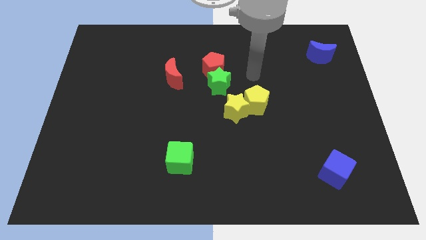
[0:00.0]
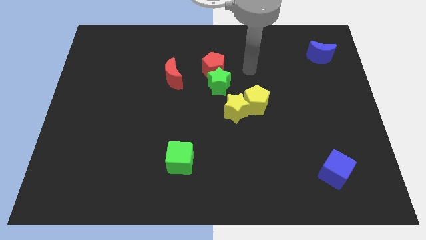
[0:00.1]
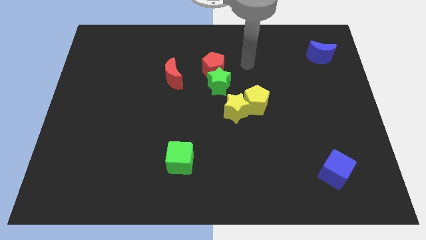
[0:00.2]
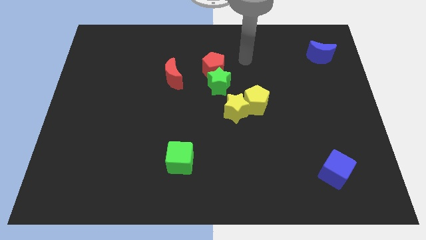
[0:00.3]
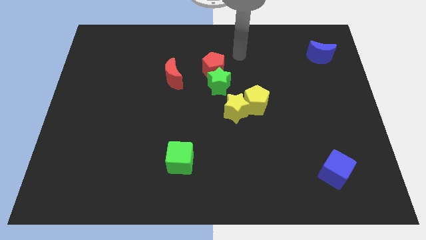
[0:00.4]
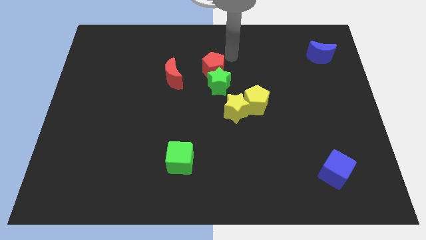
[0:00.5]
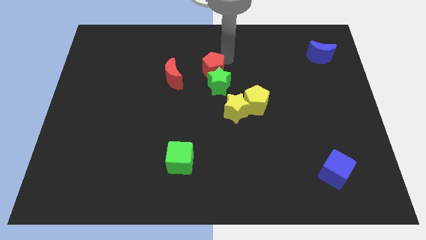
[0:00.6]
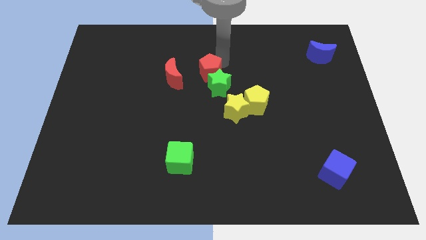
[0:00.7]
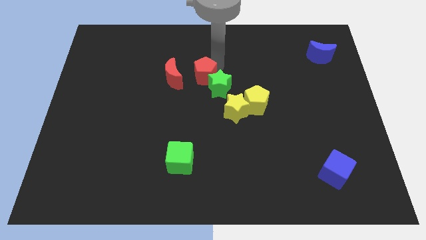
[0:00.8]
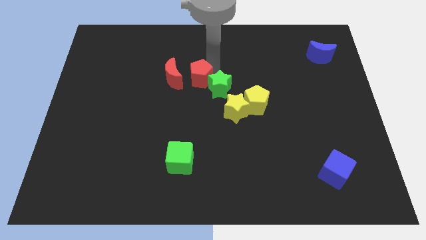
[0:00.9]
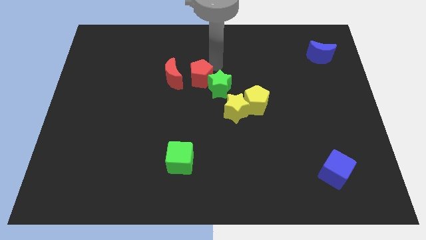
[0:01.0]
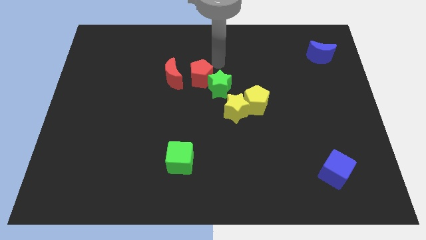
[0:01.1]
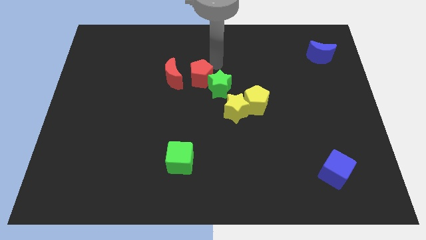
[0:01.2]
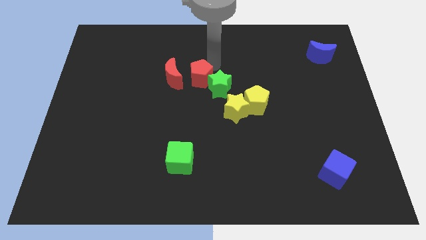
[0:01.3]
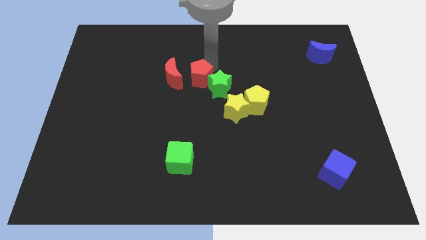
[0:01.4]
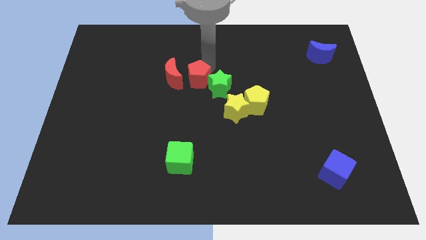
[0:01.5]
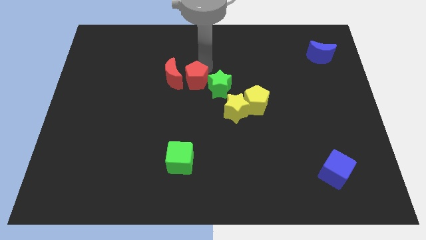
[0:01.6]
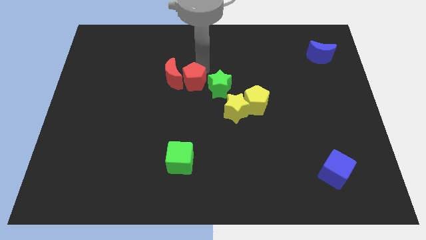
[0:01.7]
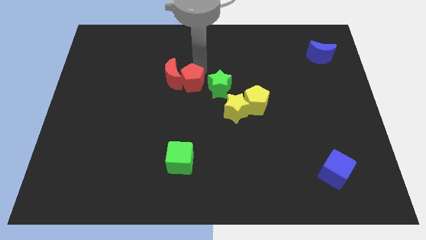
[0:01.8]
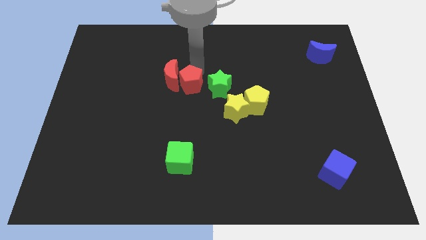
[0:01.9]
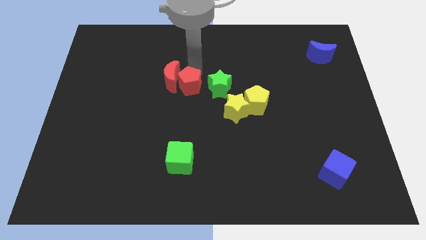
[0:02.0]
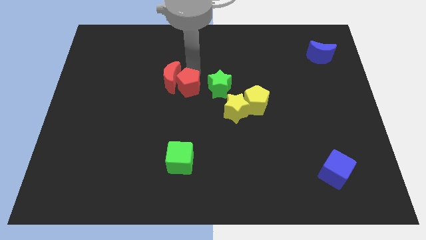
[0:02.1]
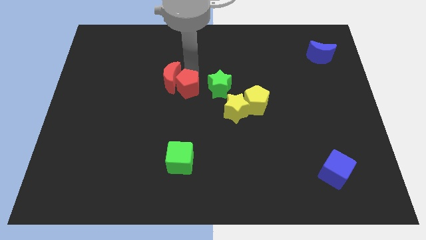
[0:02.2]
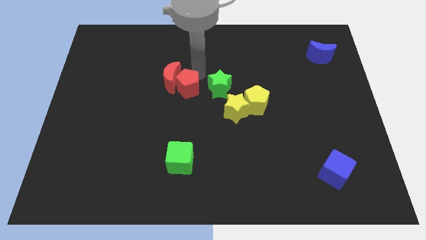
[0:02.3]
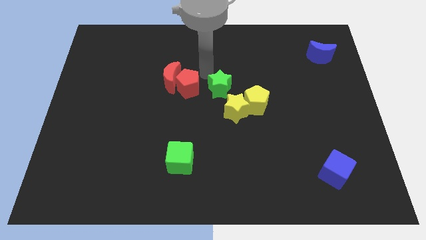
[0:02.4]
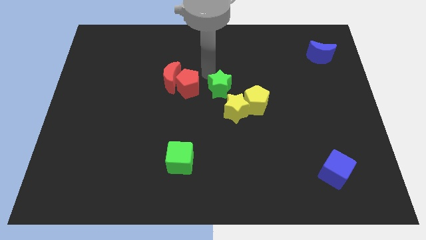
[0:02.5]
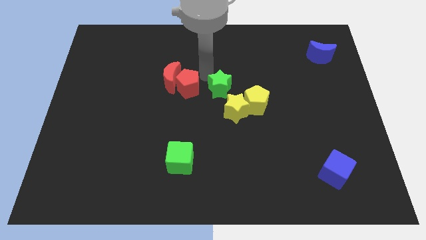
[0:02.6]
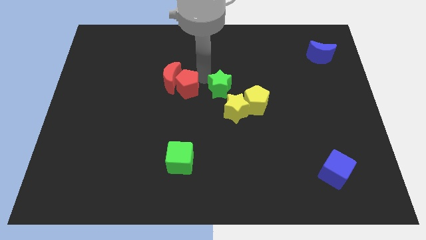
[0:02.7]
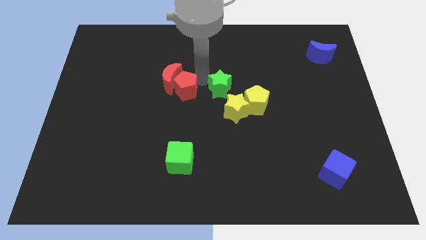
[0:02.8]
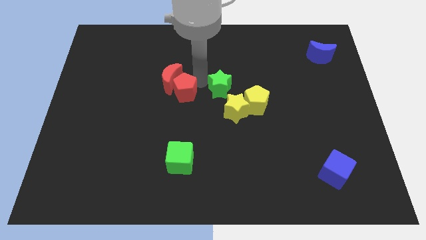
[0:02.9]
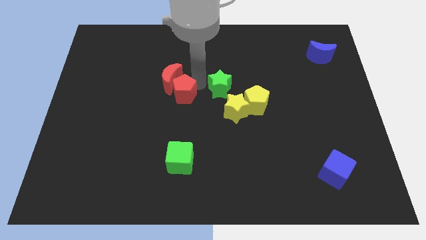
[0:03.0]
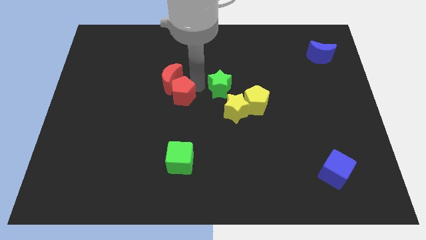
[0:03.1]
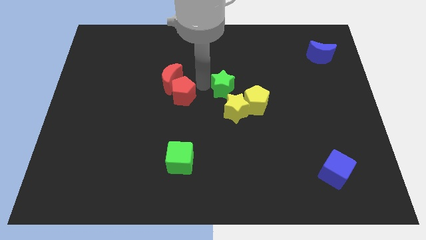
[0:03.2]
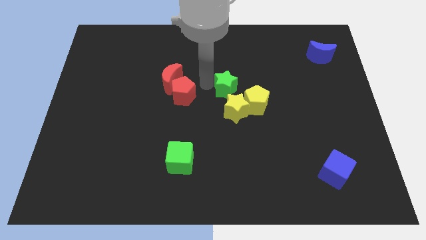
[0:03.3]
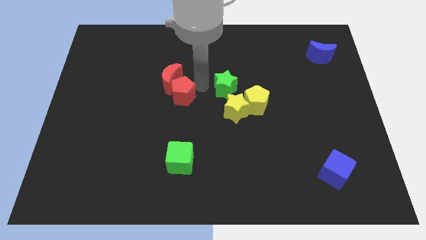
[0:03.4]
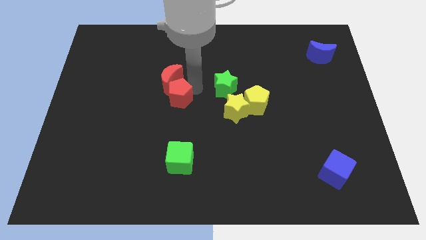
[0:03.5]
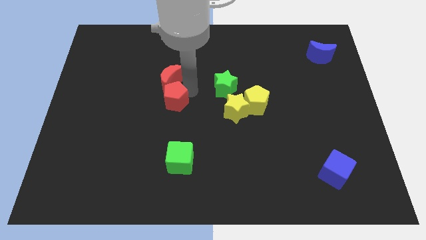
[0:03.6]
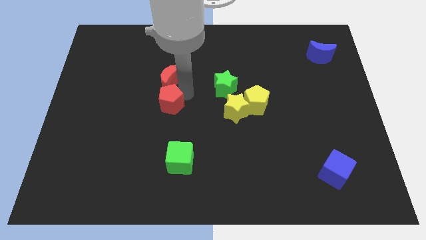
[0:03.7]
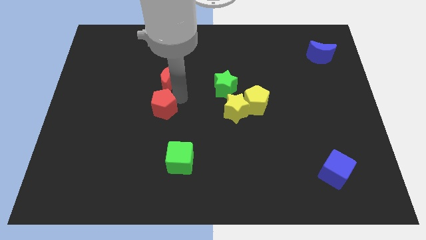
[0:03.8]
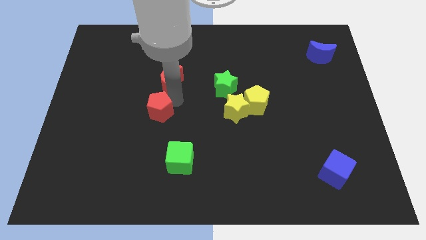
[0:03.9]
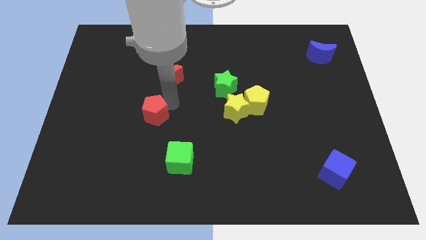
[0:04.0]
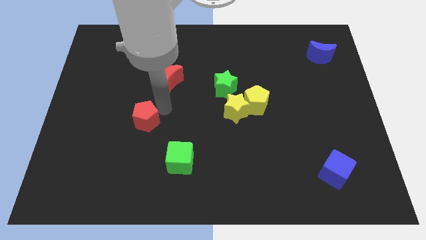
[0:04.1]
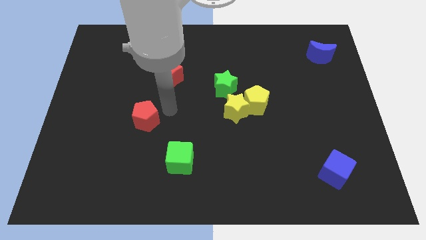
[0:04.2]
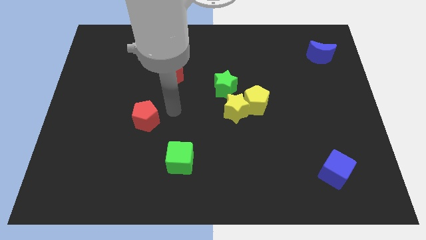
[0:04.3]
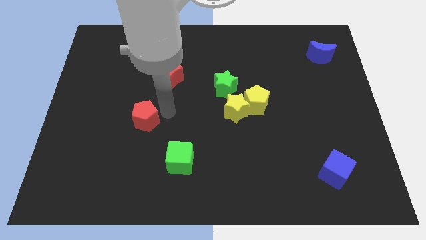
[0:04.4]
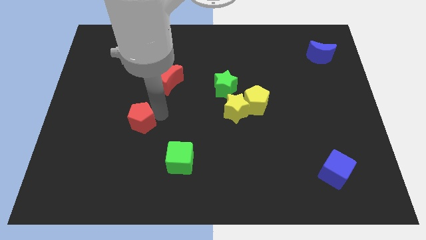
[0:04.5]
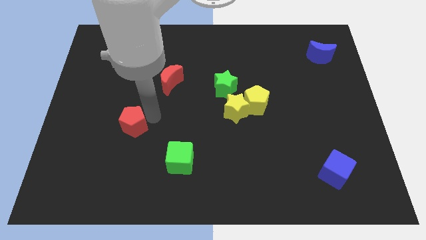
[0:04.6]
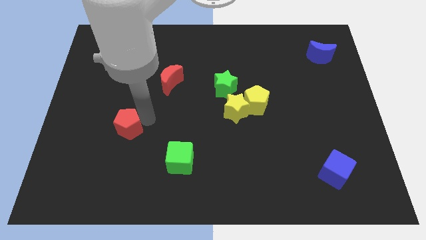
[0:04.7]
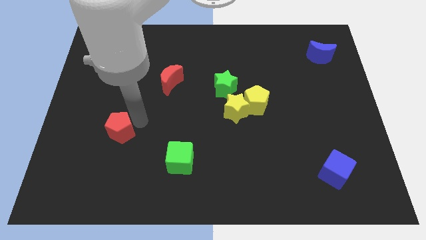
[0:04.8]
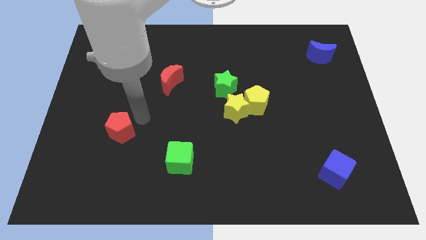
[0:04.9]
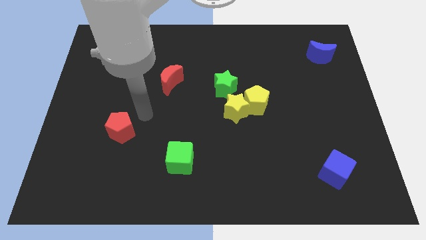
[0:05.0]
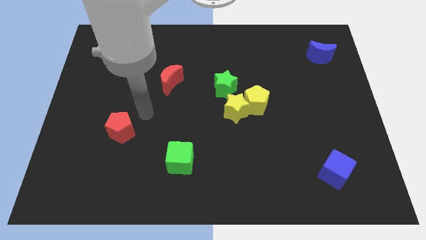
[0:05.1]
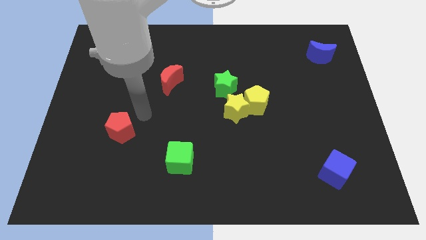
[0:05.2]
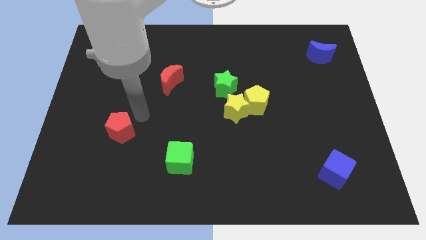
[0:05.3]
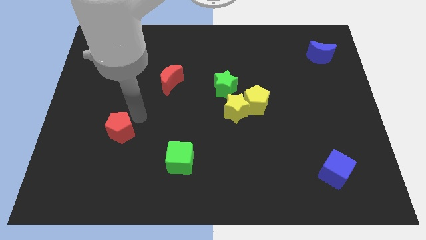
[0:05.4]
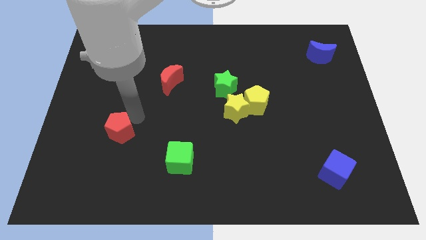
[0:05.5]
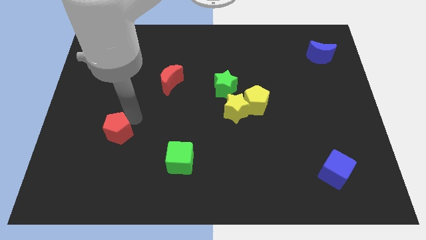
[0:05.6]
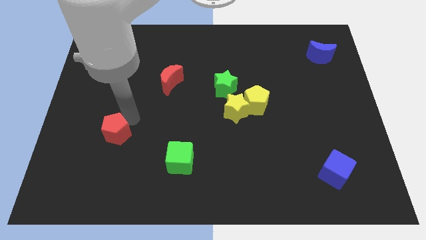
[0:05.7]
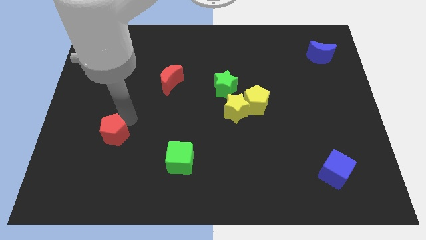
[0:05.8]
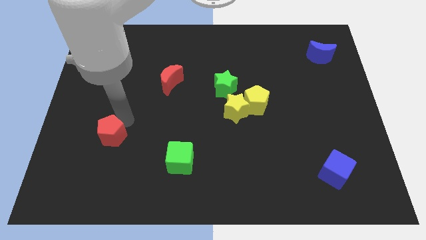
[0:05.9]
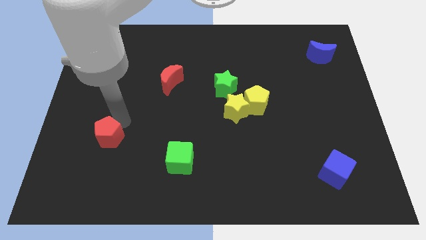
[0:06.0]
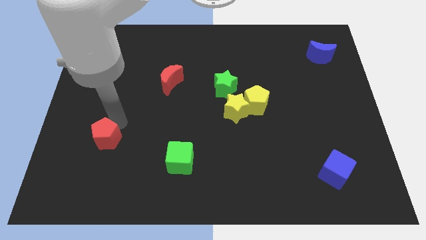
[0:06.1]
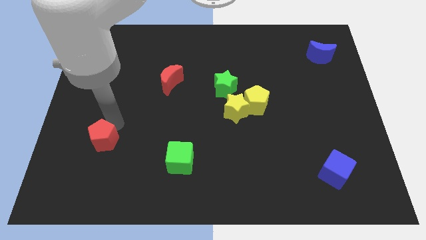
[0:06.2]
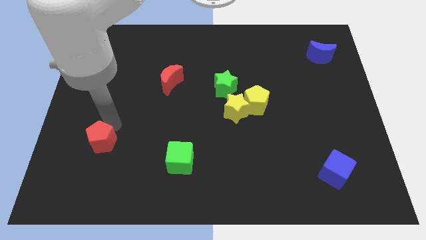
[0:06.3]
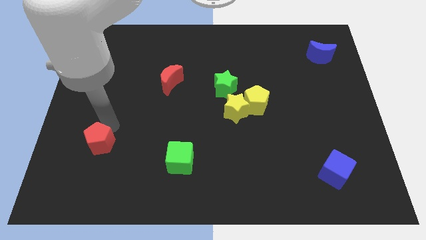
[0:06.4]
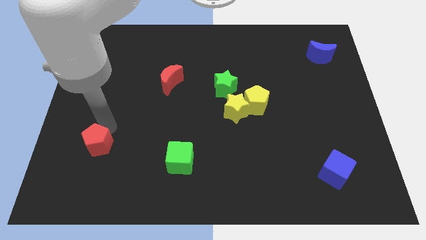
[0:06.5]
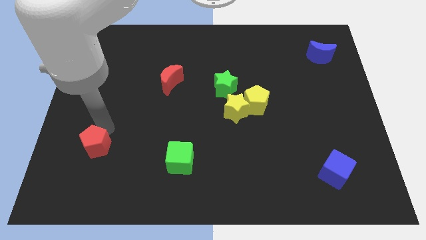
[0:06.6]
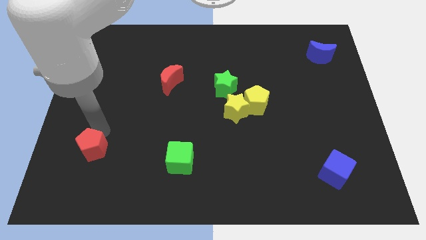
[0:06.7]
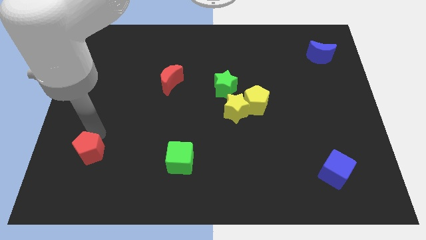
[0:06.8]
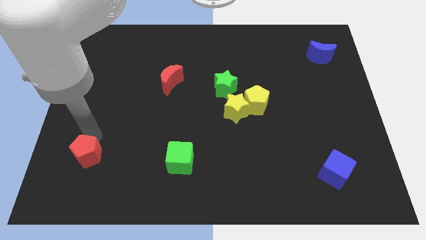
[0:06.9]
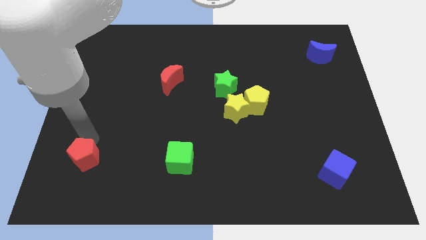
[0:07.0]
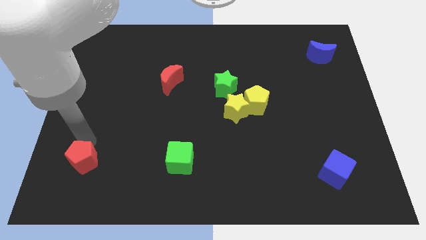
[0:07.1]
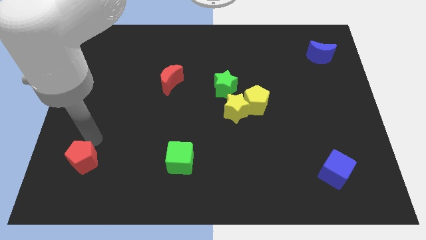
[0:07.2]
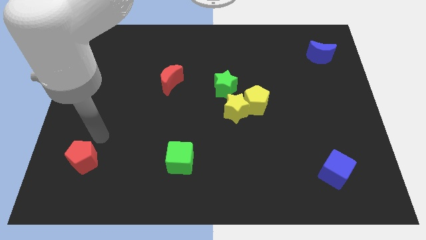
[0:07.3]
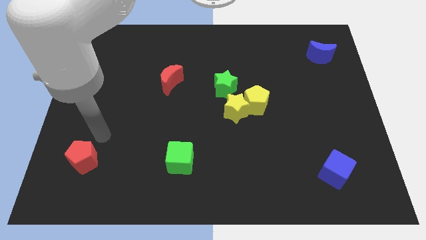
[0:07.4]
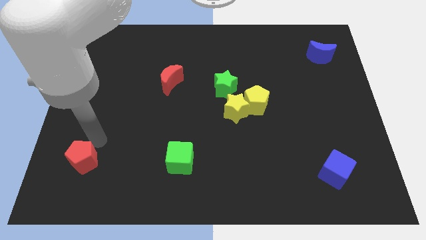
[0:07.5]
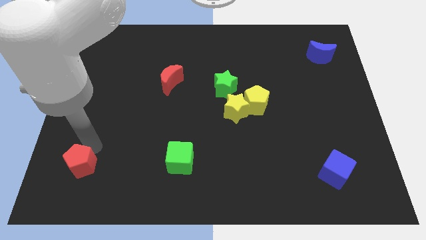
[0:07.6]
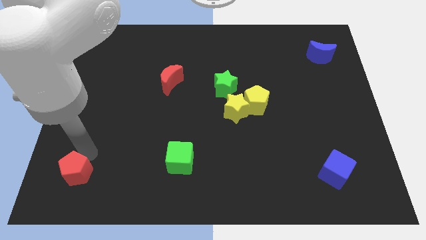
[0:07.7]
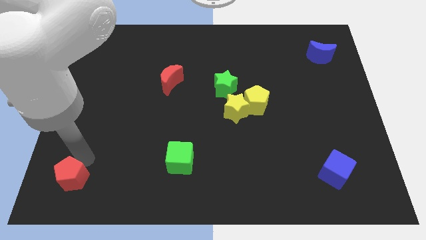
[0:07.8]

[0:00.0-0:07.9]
put the red pentagon to the bottom left corner
